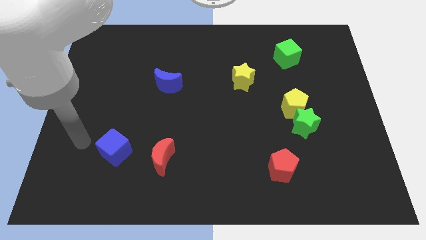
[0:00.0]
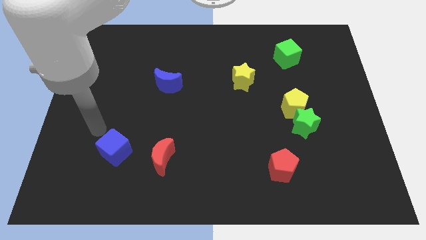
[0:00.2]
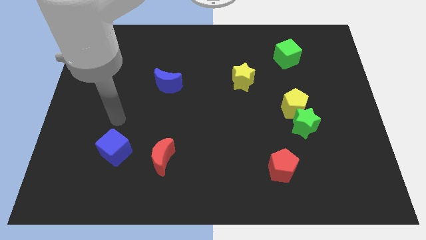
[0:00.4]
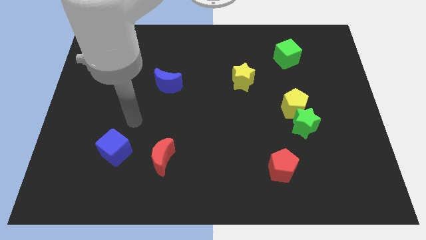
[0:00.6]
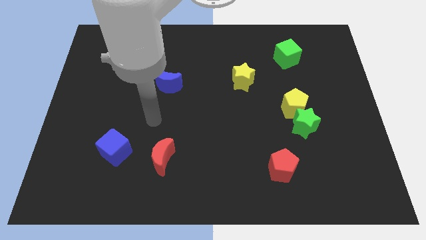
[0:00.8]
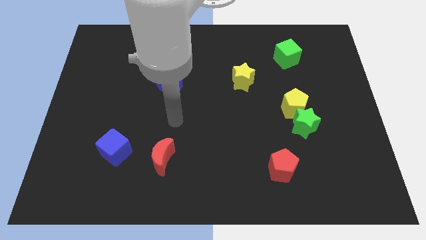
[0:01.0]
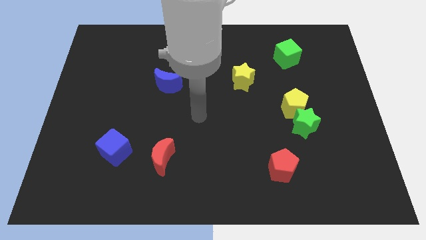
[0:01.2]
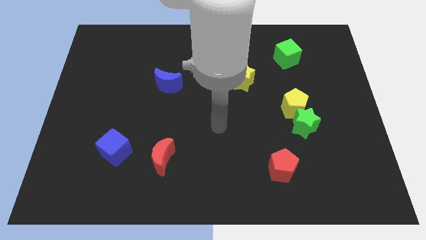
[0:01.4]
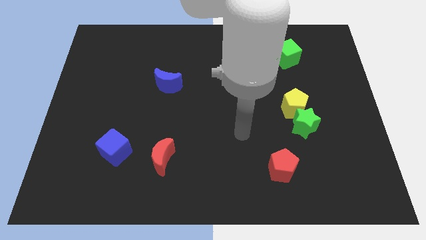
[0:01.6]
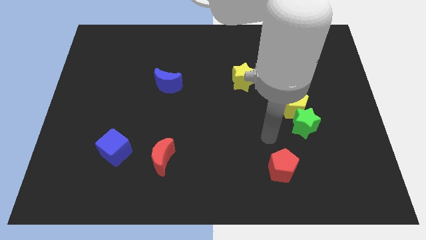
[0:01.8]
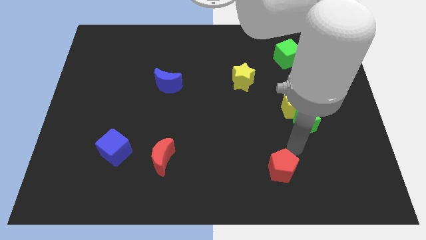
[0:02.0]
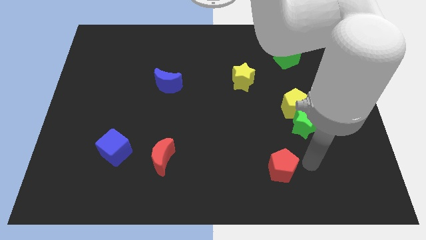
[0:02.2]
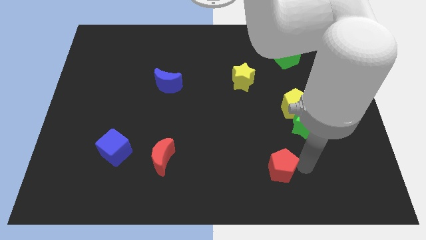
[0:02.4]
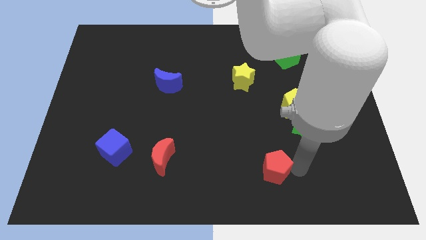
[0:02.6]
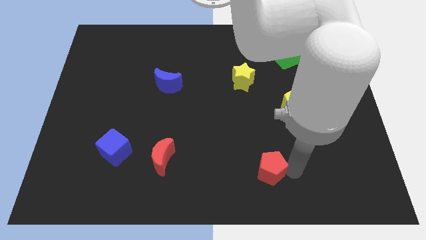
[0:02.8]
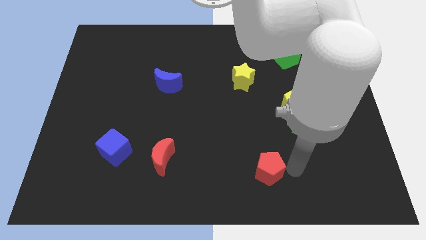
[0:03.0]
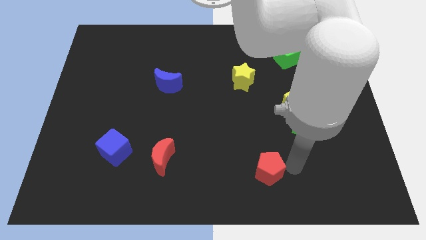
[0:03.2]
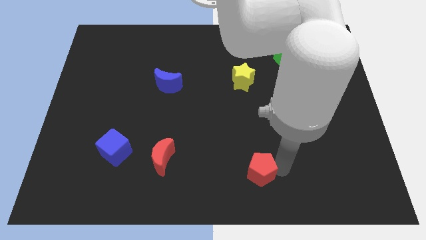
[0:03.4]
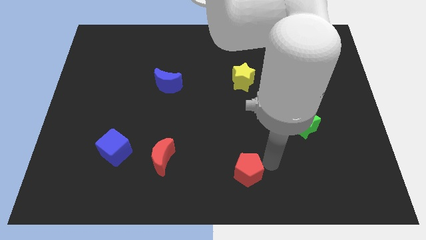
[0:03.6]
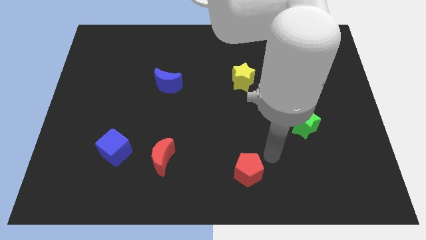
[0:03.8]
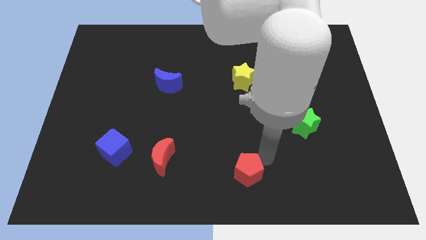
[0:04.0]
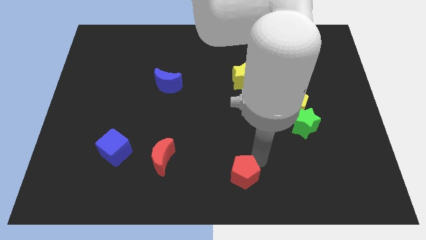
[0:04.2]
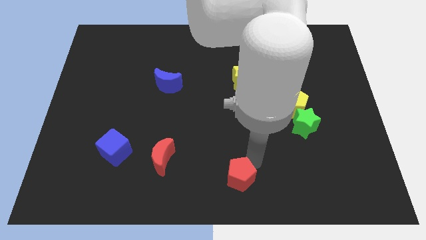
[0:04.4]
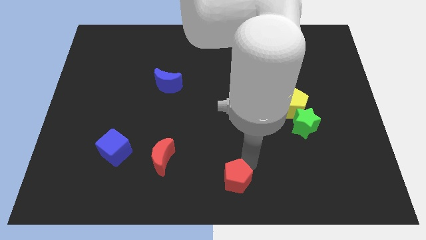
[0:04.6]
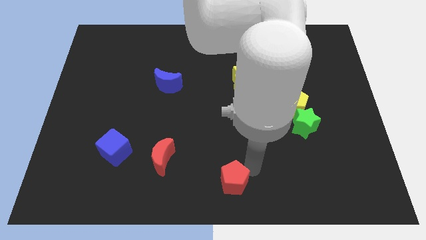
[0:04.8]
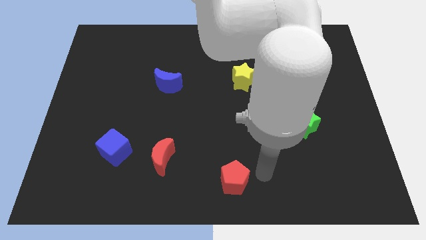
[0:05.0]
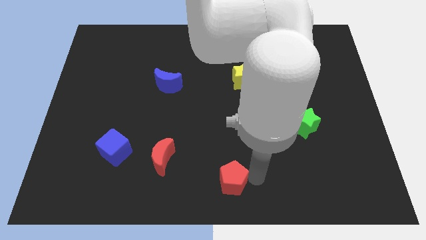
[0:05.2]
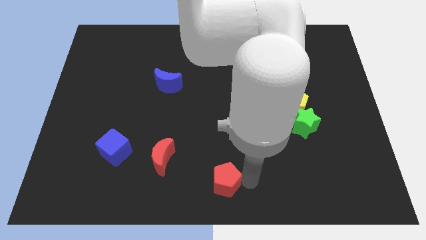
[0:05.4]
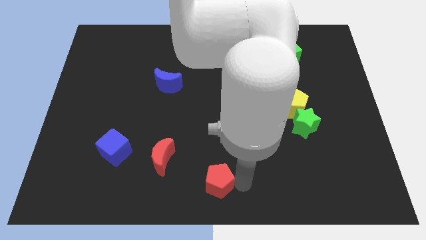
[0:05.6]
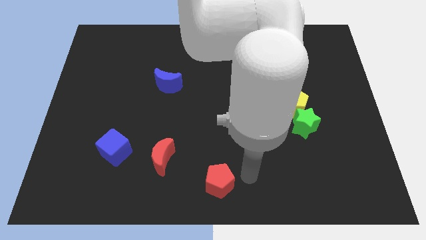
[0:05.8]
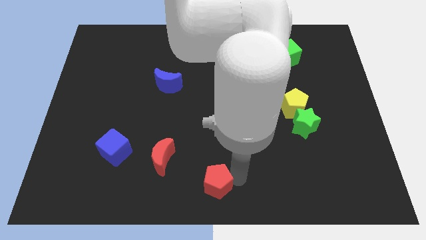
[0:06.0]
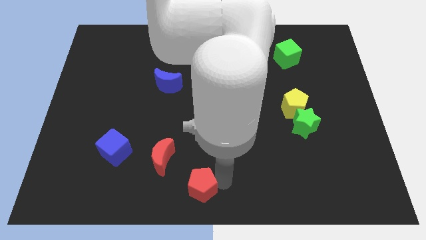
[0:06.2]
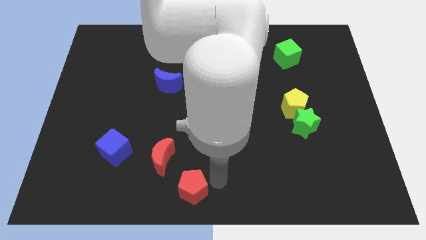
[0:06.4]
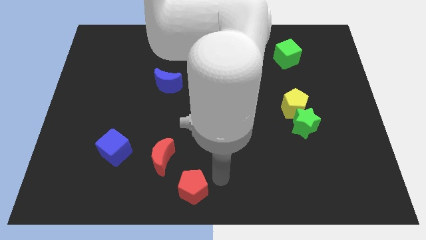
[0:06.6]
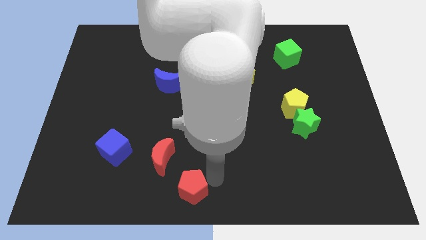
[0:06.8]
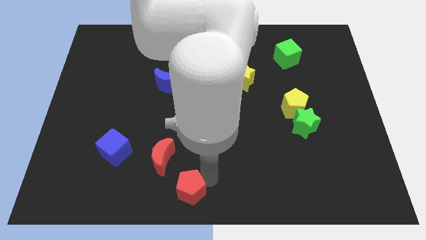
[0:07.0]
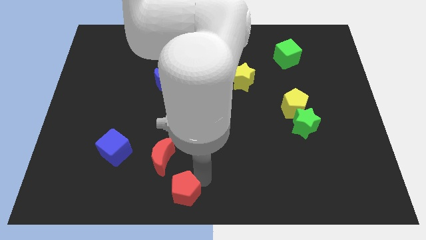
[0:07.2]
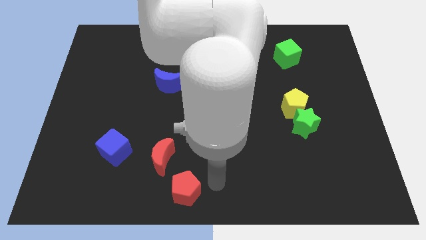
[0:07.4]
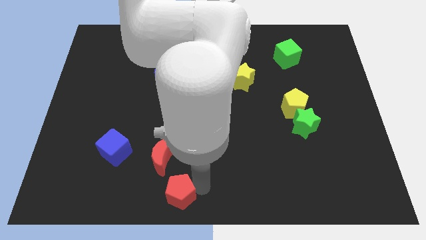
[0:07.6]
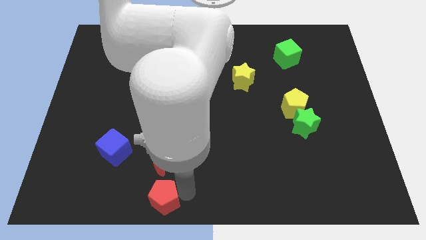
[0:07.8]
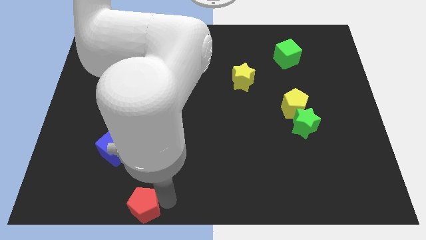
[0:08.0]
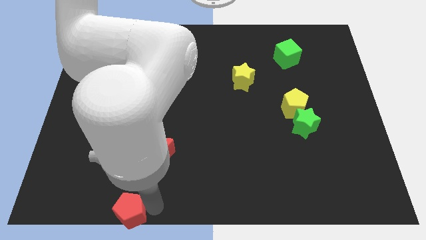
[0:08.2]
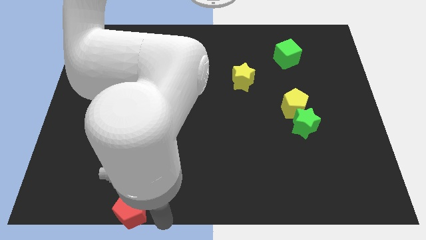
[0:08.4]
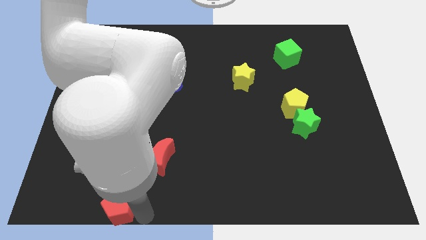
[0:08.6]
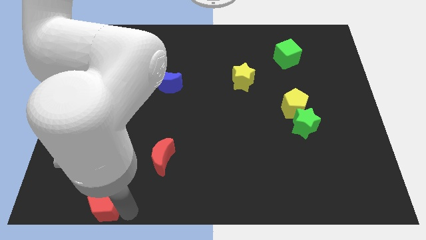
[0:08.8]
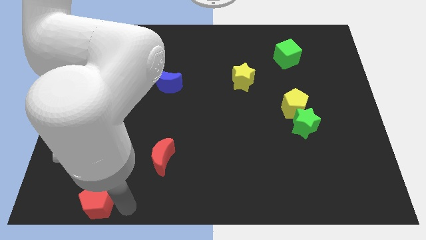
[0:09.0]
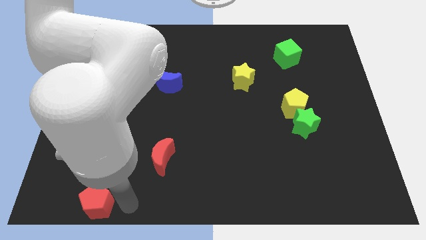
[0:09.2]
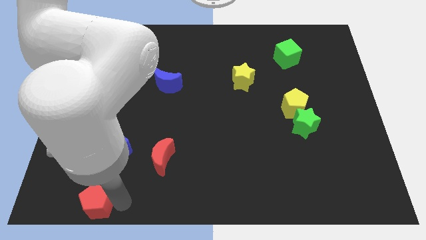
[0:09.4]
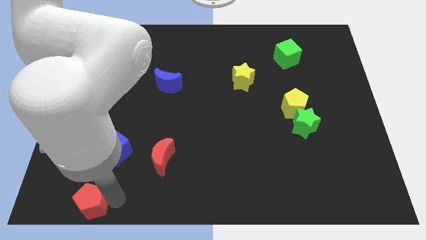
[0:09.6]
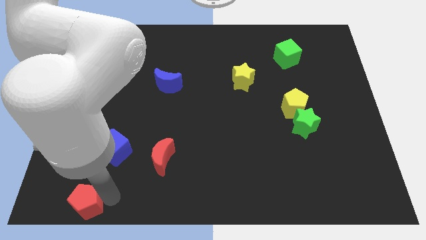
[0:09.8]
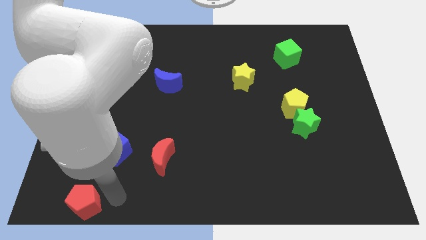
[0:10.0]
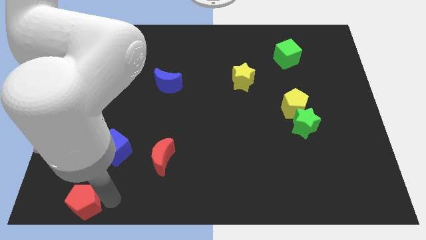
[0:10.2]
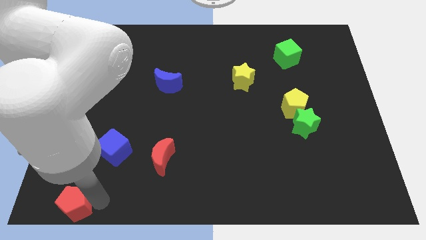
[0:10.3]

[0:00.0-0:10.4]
put the red pentagon to the lower left corner

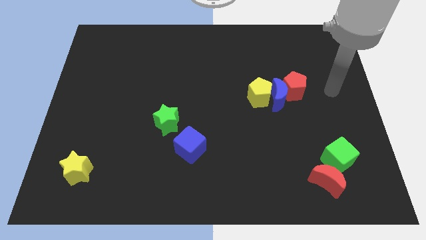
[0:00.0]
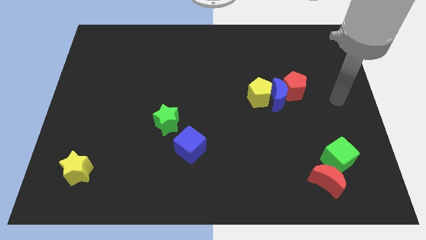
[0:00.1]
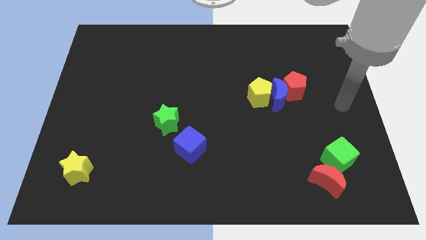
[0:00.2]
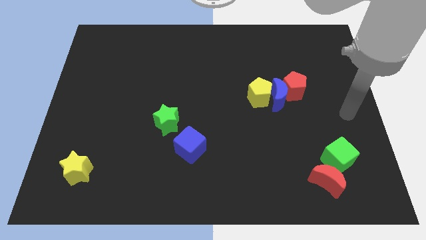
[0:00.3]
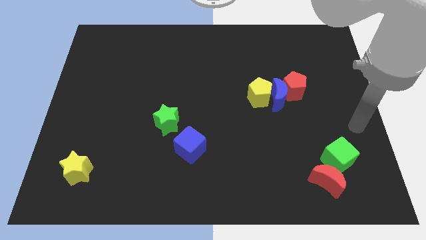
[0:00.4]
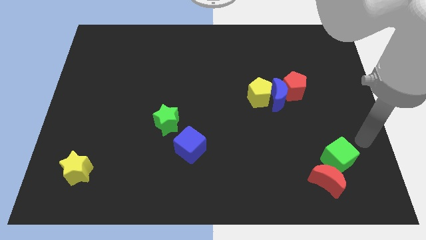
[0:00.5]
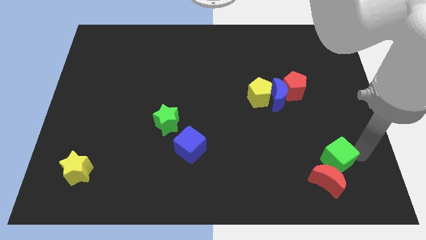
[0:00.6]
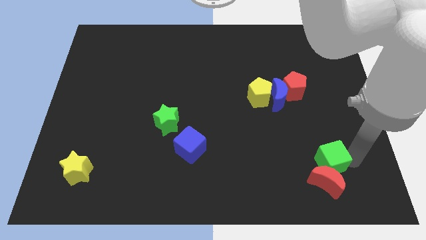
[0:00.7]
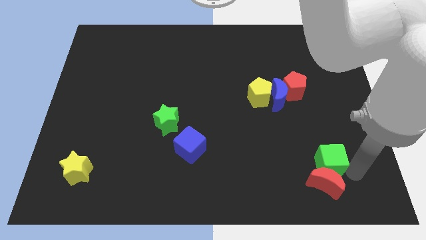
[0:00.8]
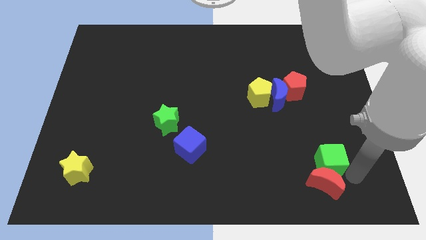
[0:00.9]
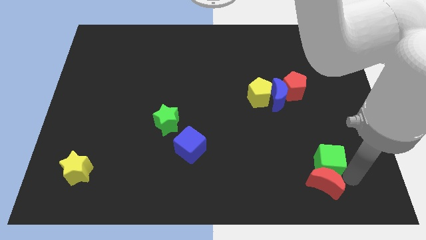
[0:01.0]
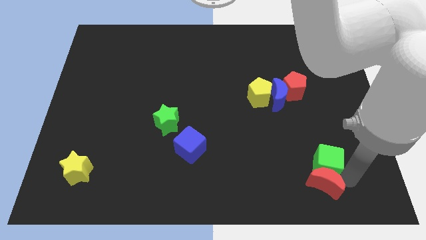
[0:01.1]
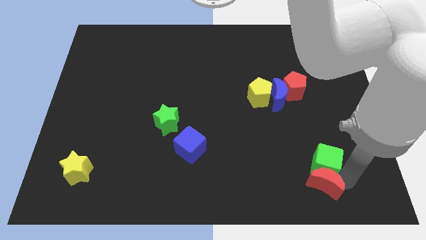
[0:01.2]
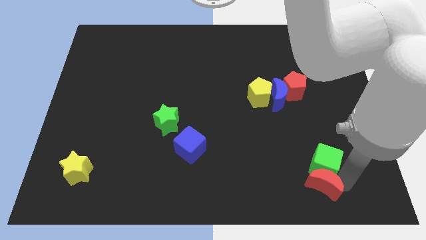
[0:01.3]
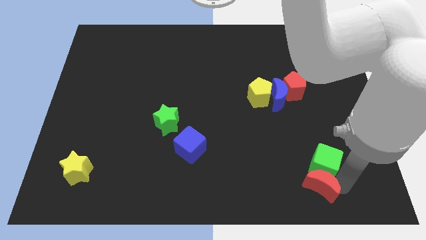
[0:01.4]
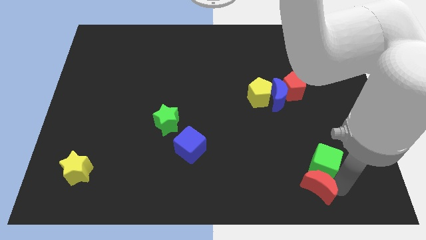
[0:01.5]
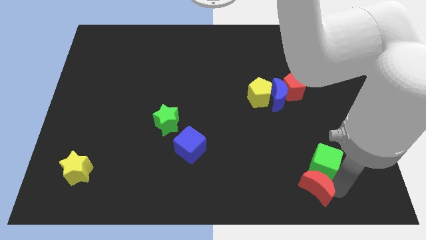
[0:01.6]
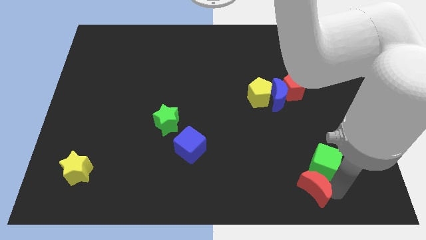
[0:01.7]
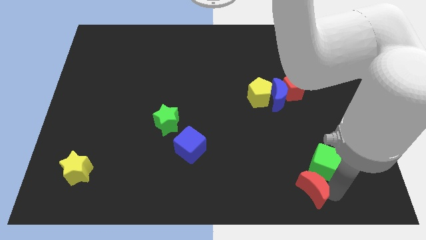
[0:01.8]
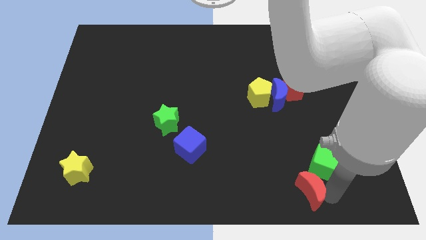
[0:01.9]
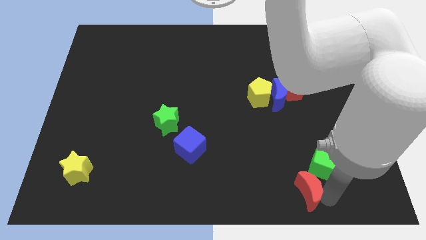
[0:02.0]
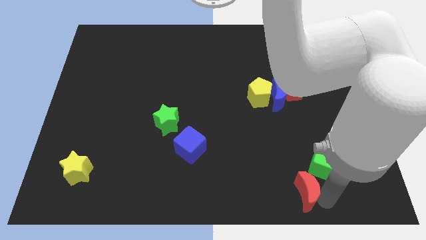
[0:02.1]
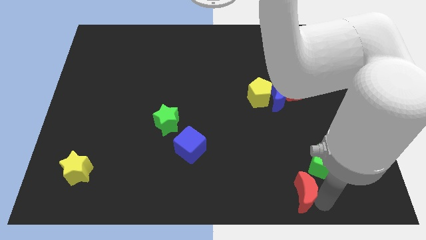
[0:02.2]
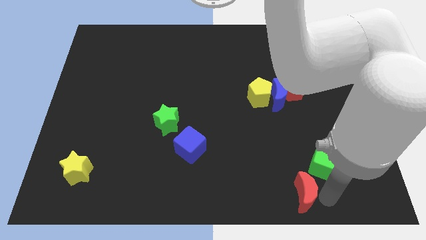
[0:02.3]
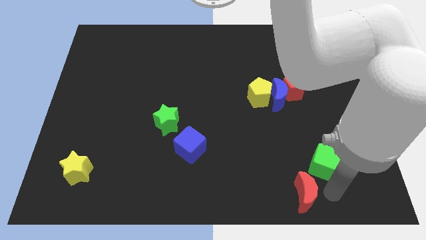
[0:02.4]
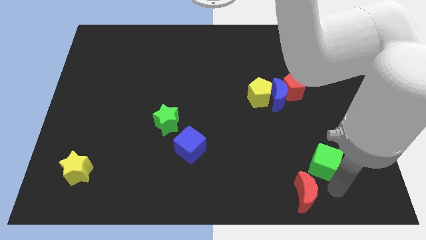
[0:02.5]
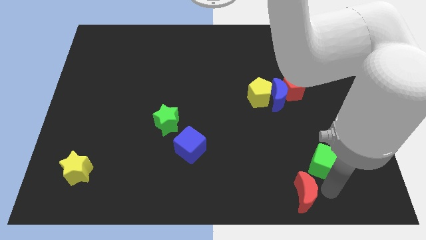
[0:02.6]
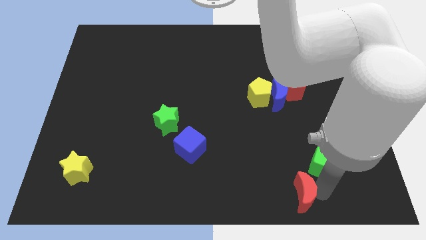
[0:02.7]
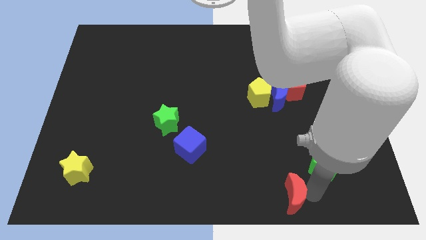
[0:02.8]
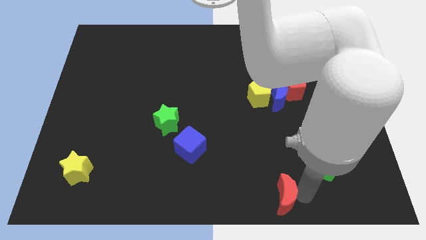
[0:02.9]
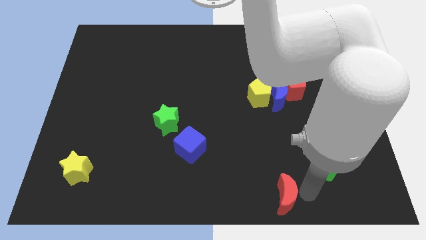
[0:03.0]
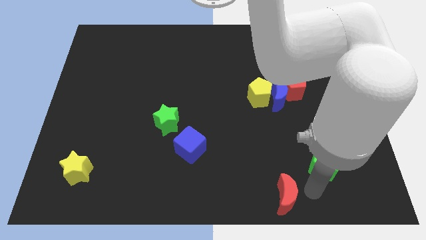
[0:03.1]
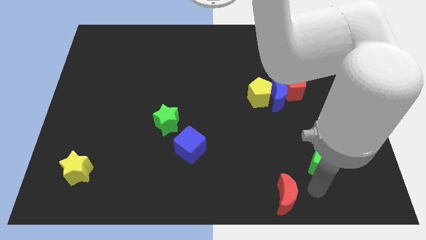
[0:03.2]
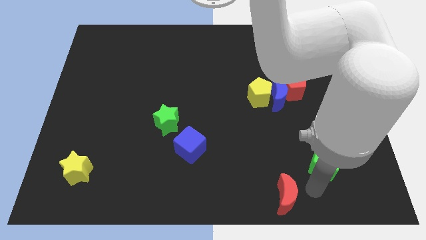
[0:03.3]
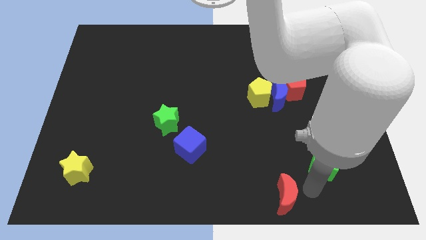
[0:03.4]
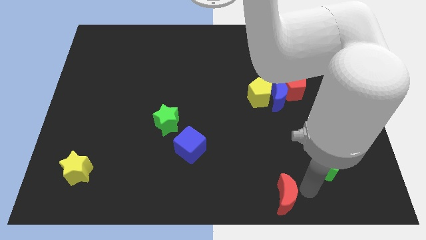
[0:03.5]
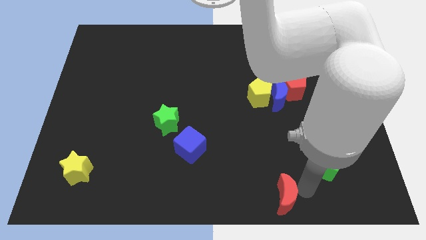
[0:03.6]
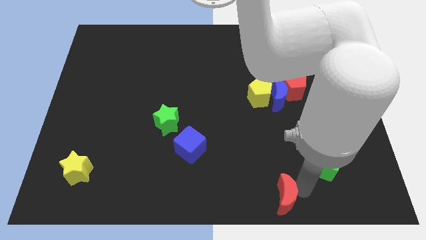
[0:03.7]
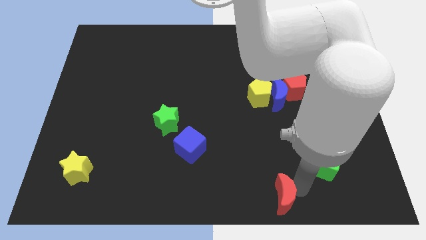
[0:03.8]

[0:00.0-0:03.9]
put the red moon to the bottom
